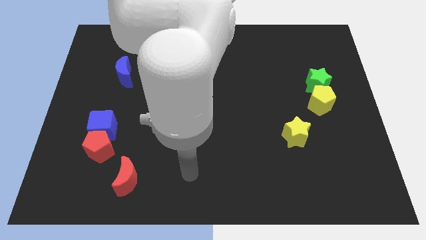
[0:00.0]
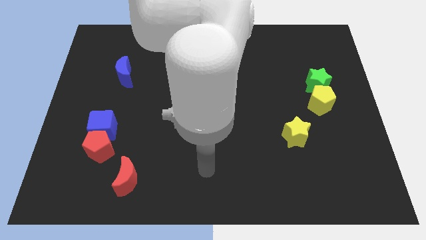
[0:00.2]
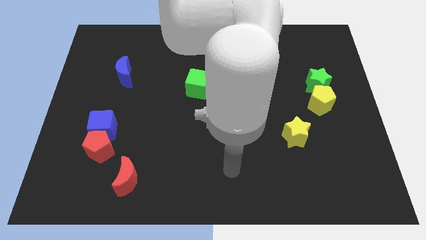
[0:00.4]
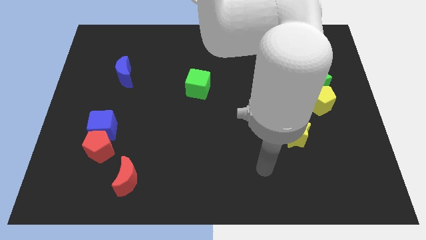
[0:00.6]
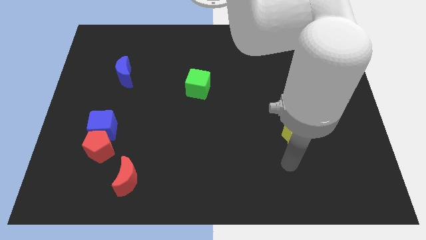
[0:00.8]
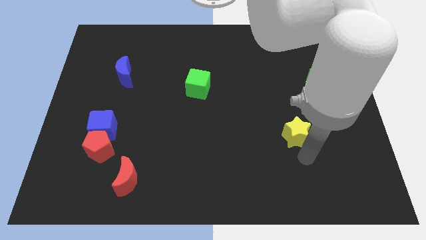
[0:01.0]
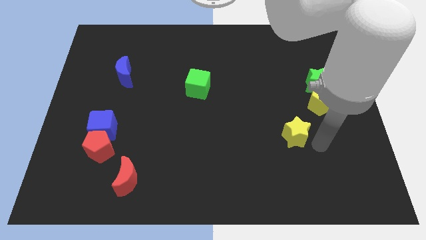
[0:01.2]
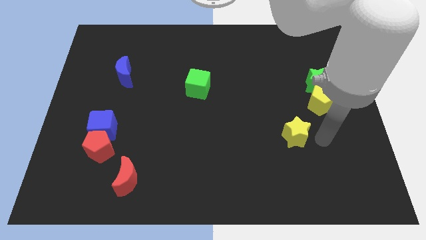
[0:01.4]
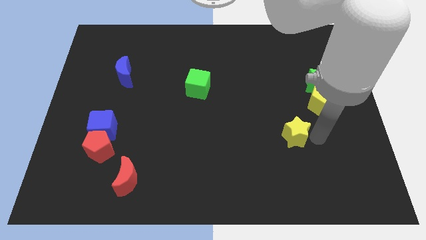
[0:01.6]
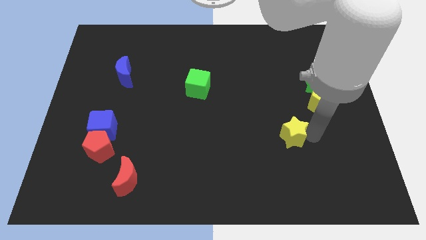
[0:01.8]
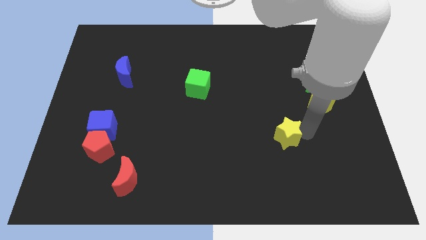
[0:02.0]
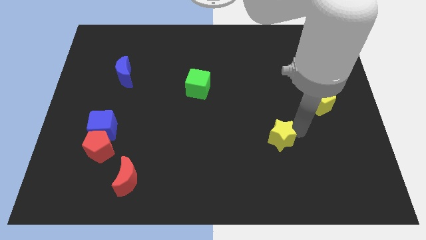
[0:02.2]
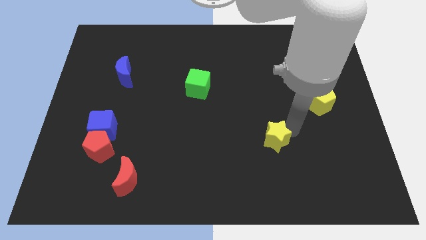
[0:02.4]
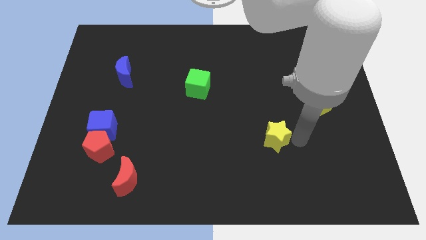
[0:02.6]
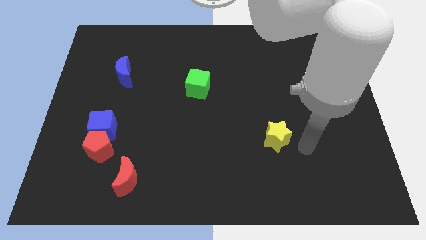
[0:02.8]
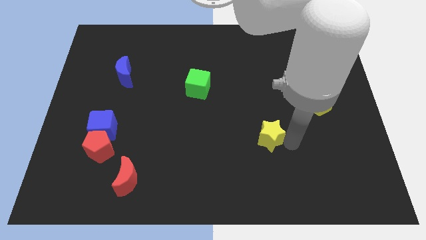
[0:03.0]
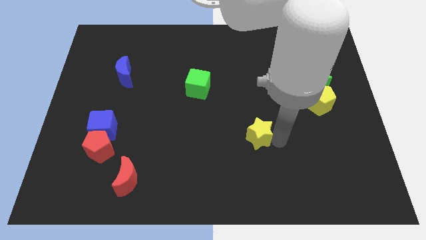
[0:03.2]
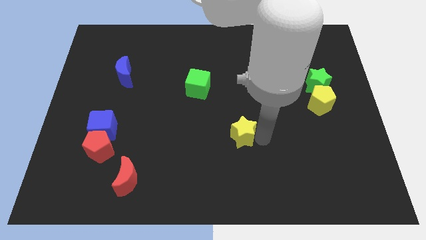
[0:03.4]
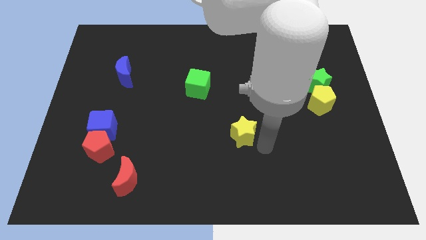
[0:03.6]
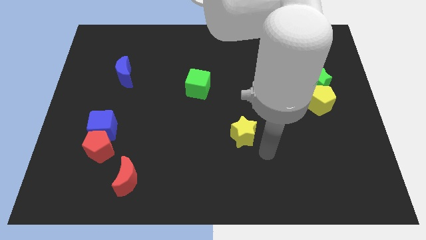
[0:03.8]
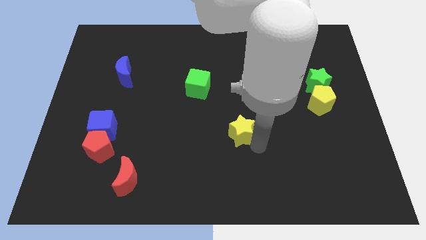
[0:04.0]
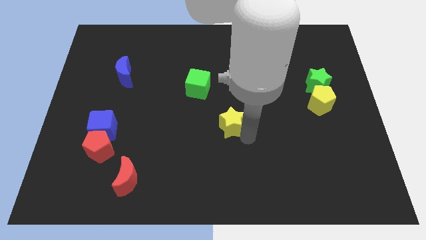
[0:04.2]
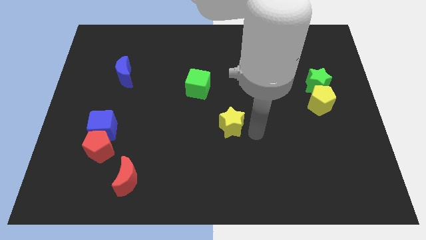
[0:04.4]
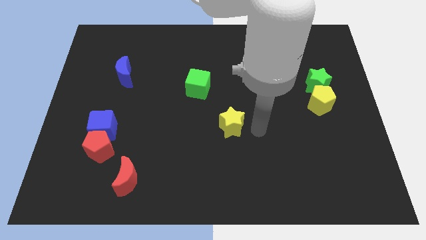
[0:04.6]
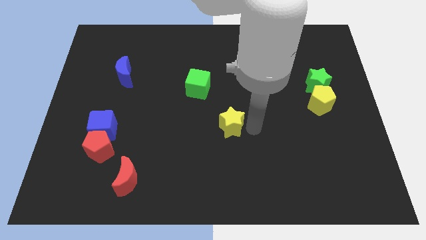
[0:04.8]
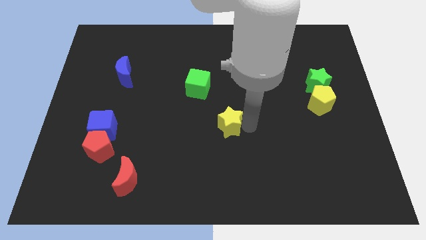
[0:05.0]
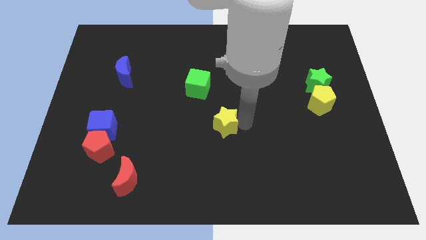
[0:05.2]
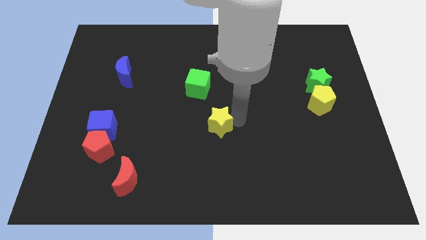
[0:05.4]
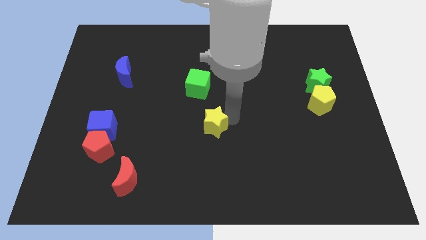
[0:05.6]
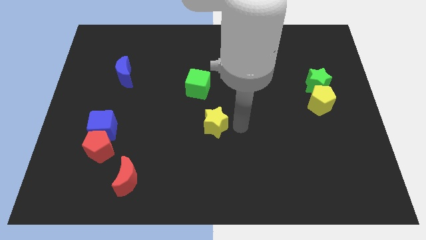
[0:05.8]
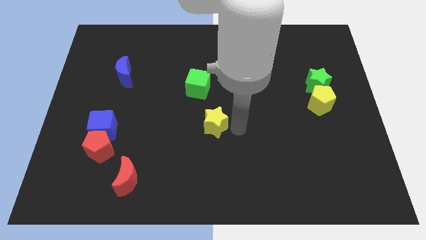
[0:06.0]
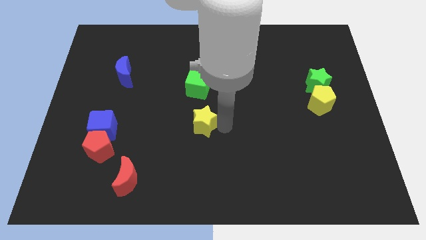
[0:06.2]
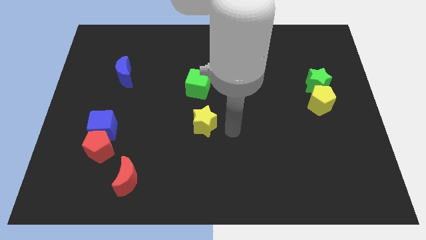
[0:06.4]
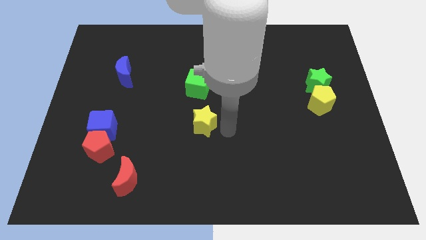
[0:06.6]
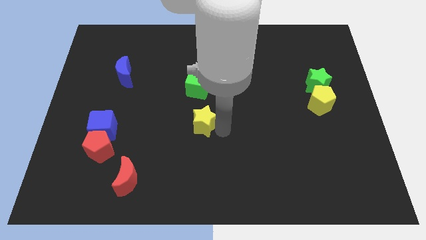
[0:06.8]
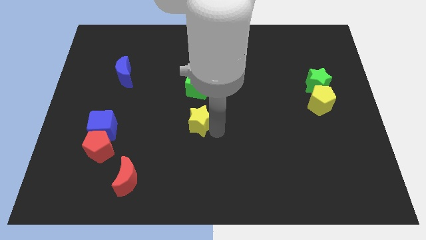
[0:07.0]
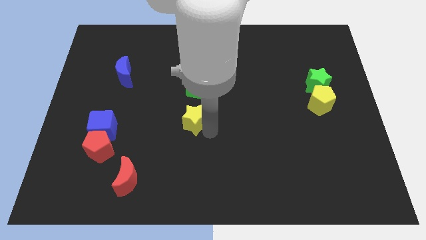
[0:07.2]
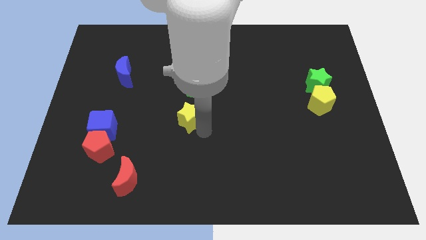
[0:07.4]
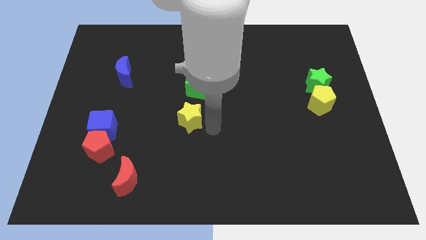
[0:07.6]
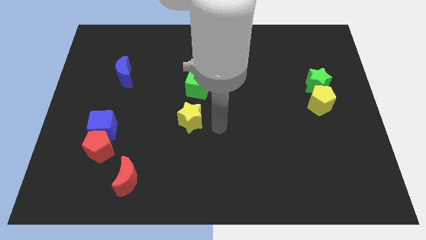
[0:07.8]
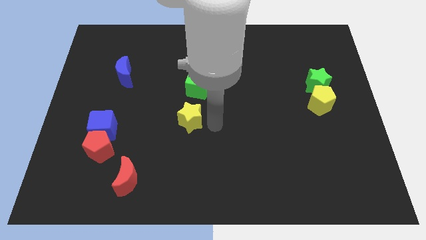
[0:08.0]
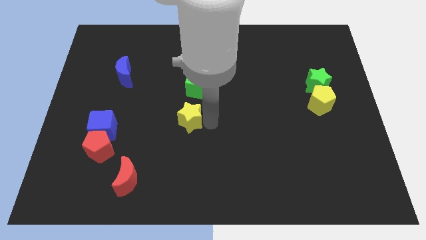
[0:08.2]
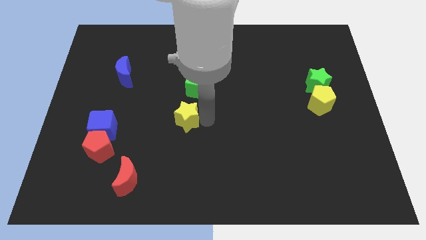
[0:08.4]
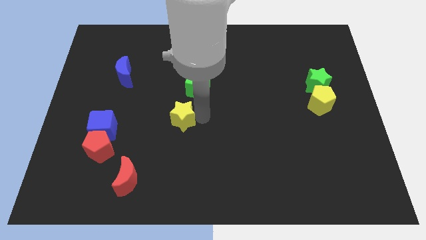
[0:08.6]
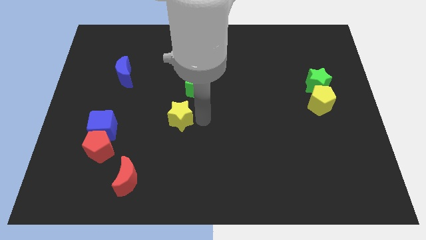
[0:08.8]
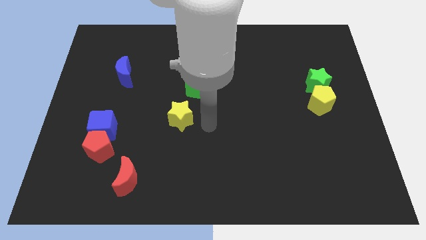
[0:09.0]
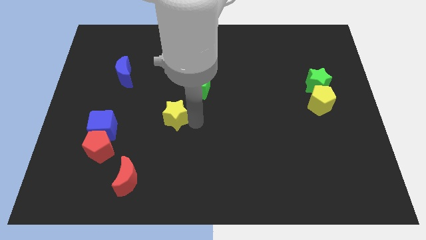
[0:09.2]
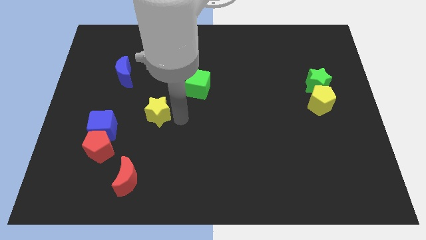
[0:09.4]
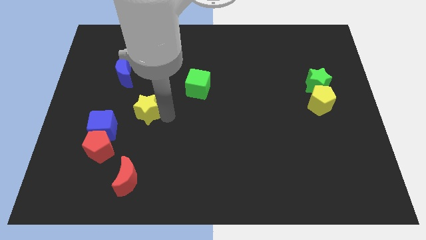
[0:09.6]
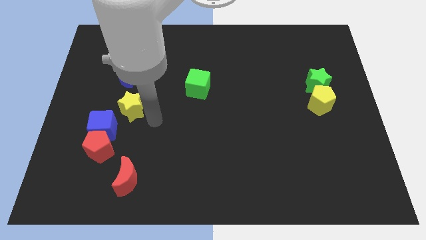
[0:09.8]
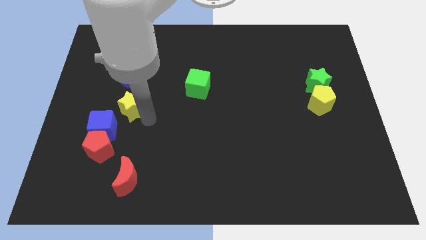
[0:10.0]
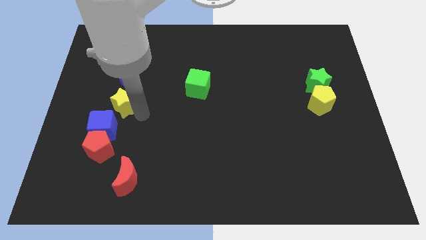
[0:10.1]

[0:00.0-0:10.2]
push the yellow star above the blue cube

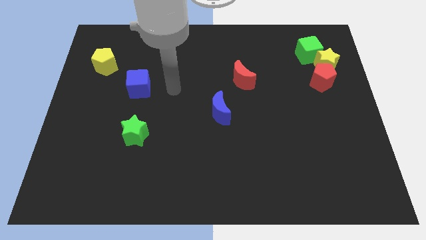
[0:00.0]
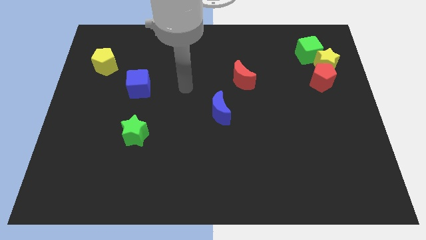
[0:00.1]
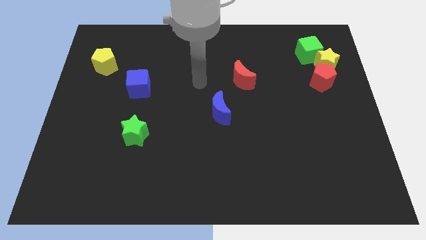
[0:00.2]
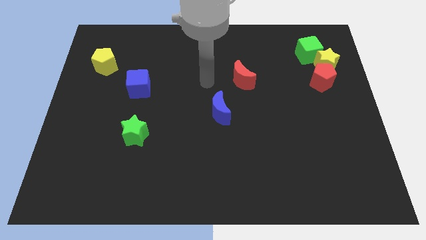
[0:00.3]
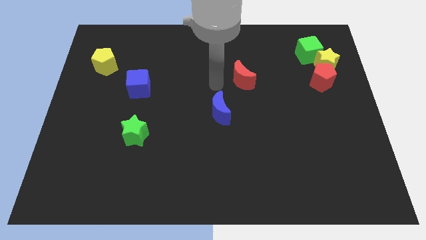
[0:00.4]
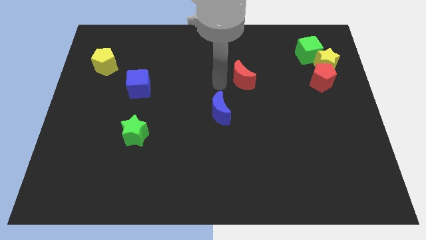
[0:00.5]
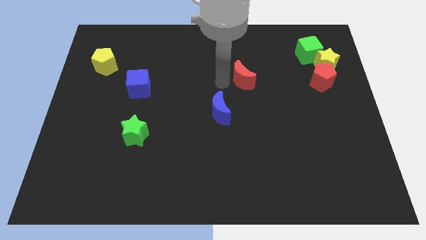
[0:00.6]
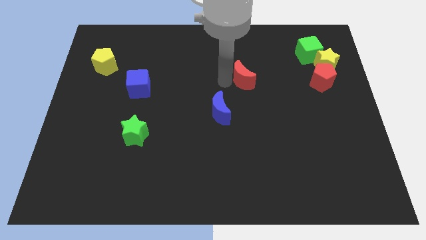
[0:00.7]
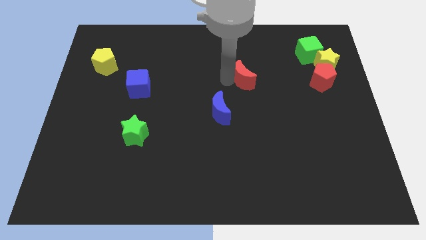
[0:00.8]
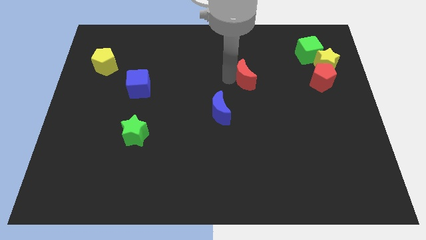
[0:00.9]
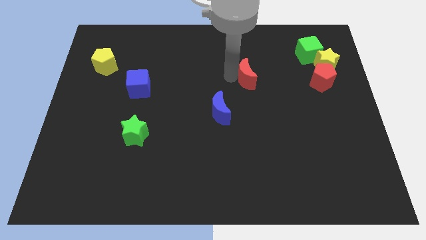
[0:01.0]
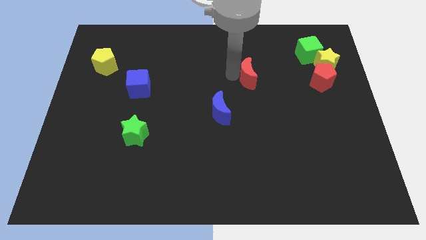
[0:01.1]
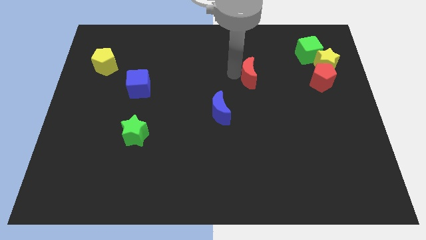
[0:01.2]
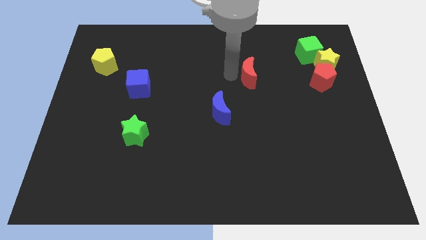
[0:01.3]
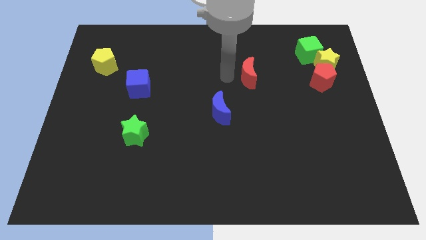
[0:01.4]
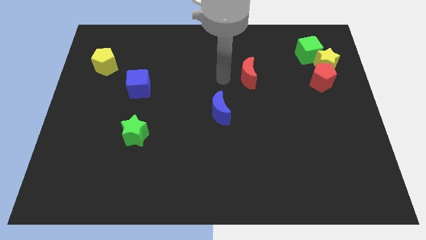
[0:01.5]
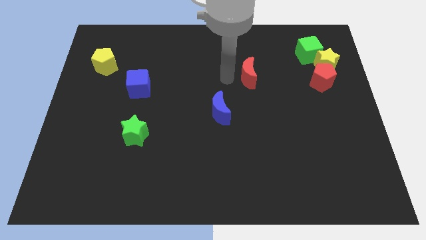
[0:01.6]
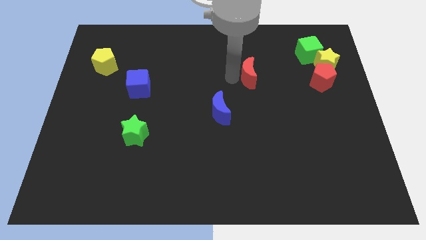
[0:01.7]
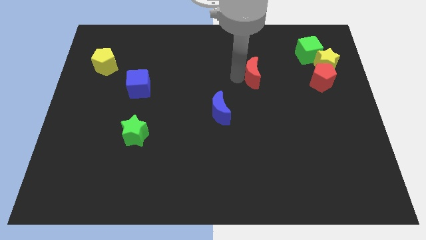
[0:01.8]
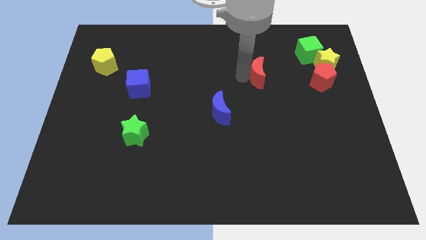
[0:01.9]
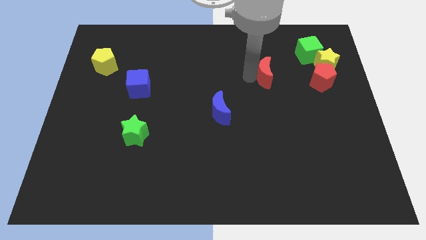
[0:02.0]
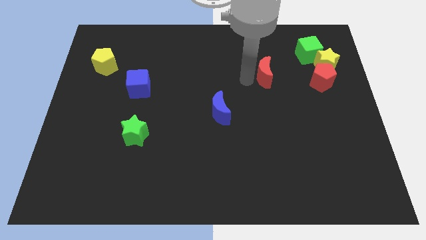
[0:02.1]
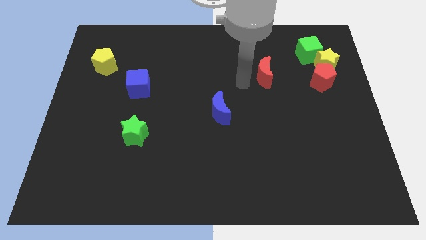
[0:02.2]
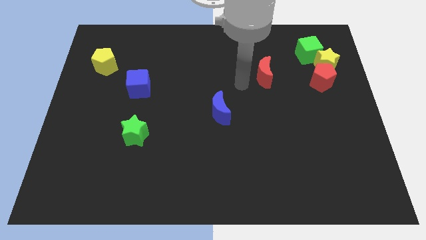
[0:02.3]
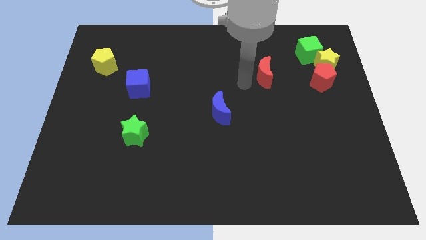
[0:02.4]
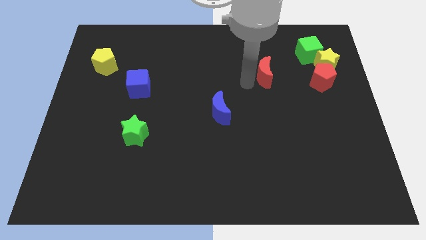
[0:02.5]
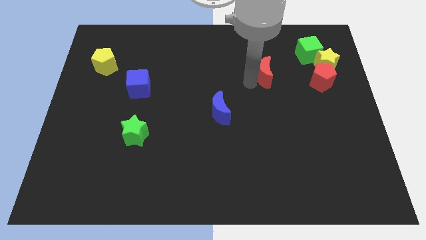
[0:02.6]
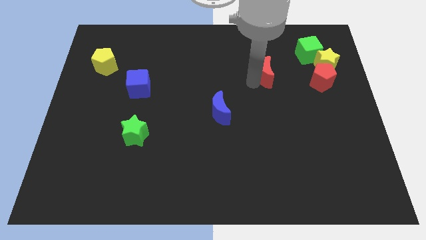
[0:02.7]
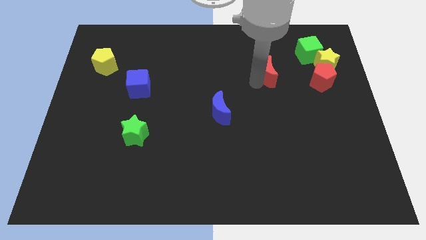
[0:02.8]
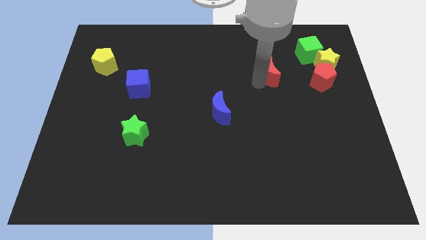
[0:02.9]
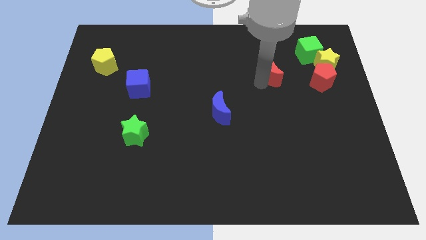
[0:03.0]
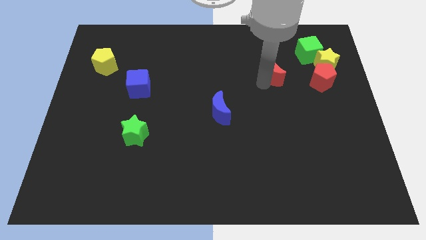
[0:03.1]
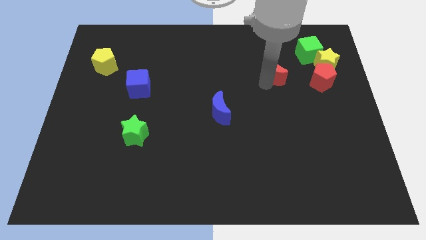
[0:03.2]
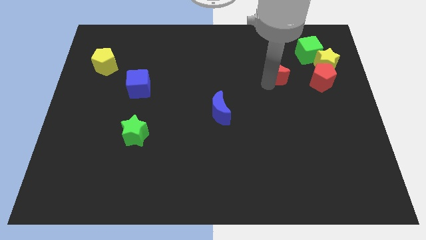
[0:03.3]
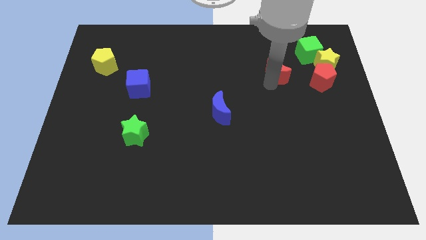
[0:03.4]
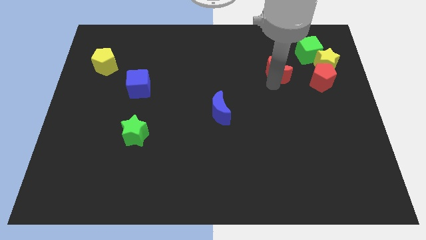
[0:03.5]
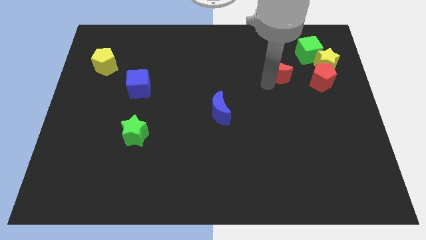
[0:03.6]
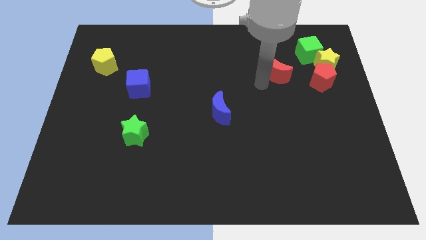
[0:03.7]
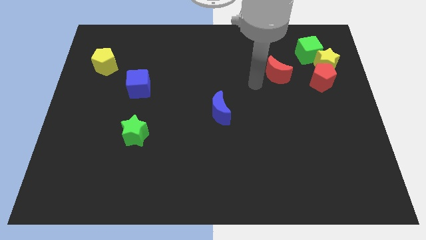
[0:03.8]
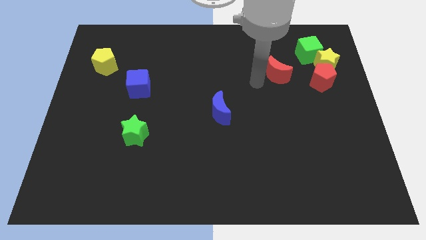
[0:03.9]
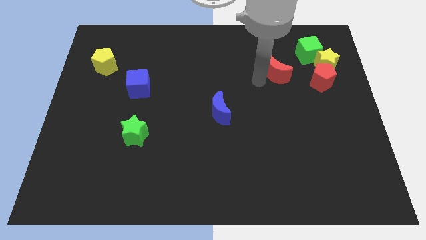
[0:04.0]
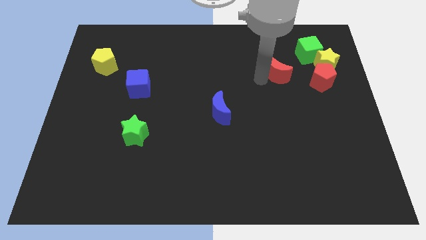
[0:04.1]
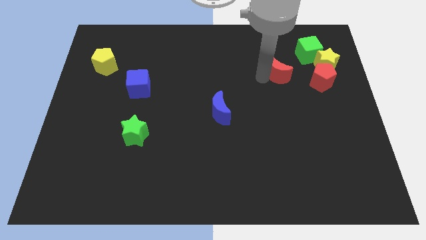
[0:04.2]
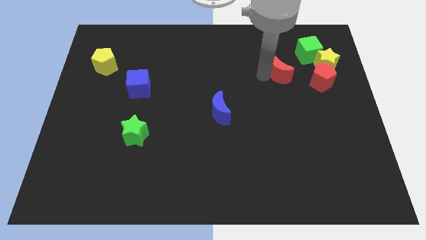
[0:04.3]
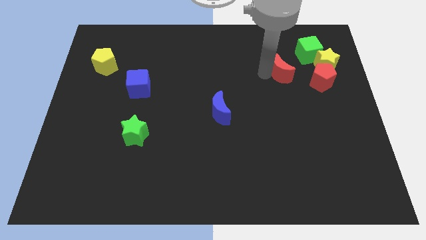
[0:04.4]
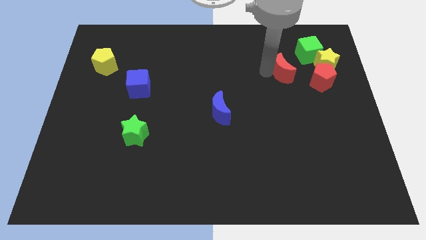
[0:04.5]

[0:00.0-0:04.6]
put the red moon to the top left side of the red pentagon
